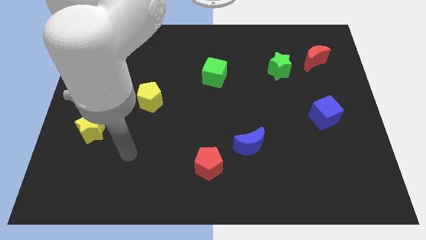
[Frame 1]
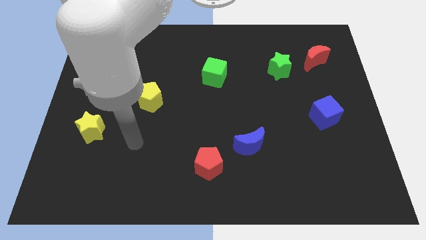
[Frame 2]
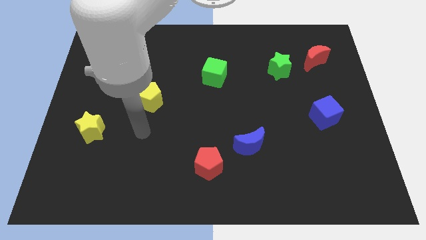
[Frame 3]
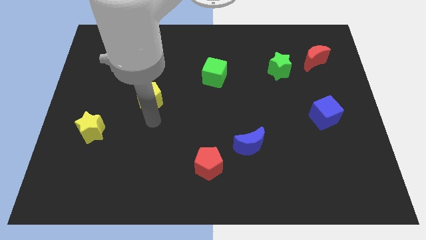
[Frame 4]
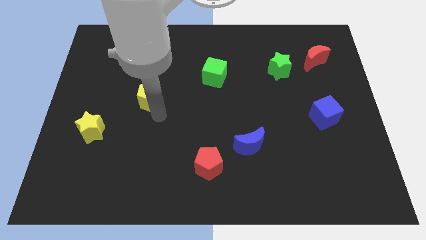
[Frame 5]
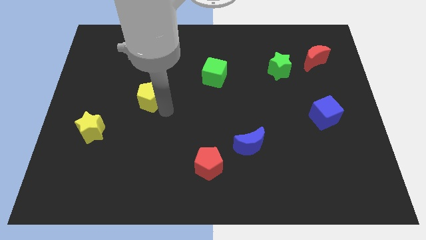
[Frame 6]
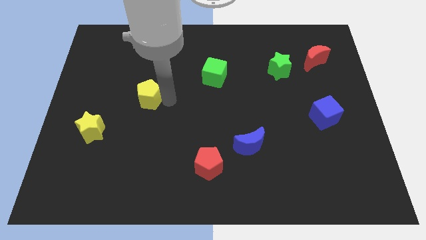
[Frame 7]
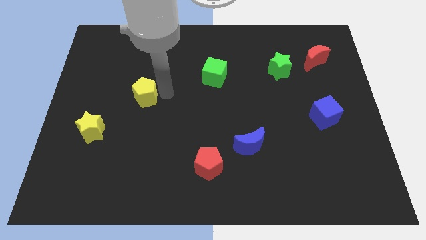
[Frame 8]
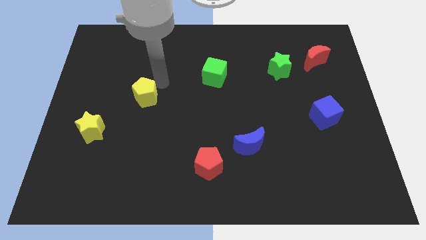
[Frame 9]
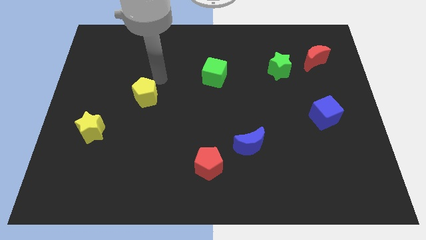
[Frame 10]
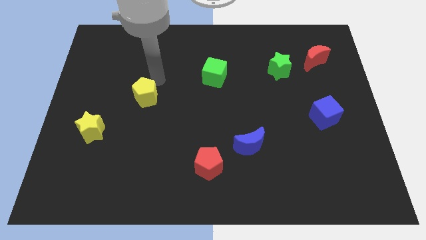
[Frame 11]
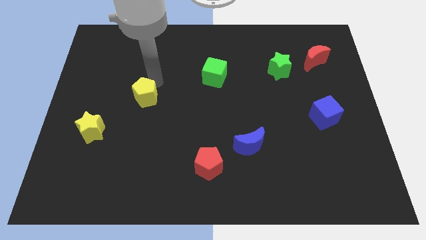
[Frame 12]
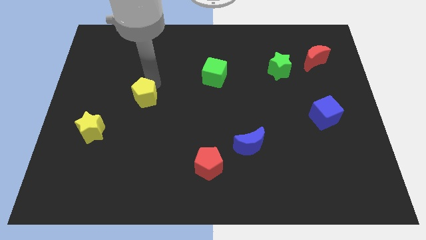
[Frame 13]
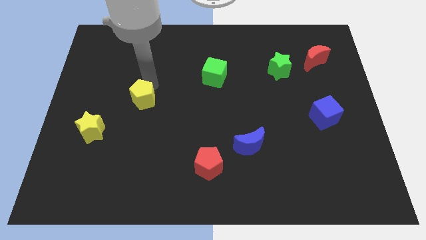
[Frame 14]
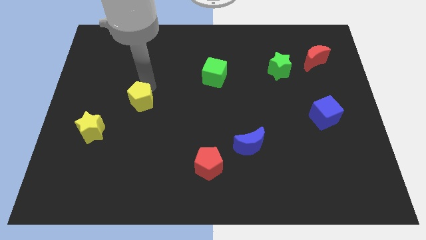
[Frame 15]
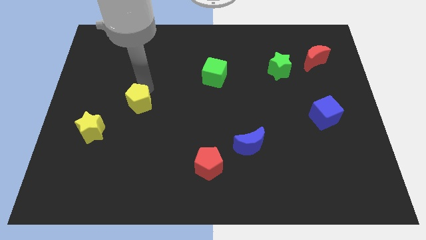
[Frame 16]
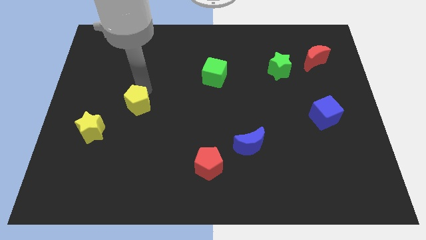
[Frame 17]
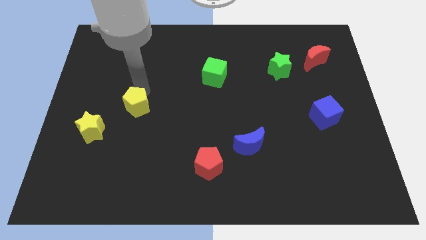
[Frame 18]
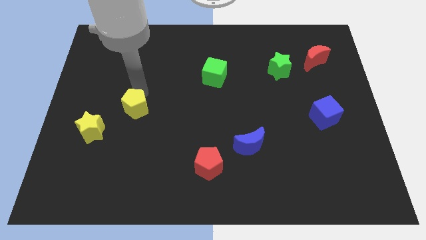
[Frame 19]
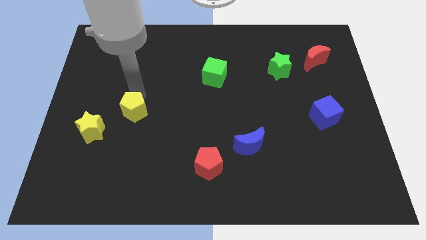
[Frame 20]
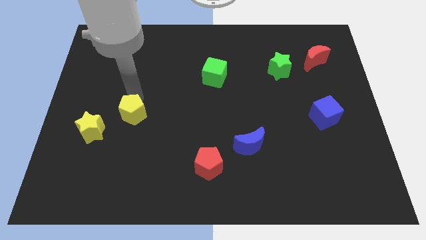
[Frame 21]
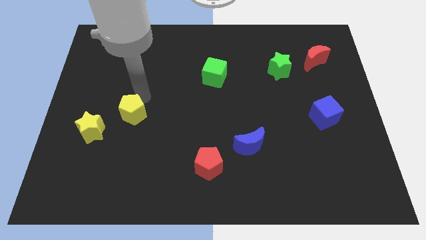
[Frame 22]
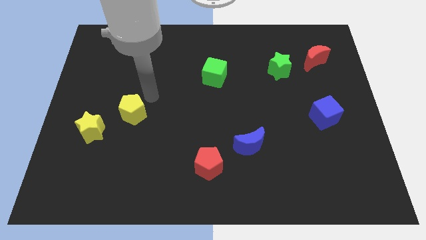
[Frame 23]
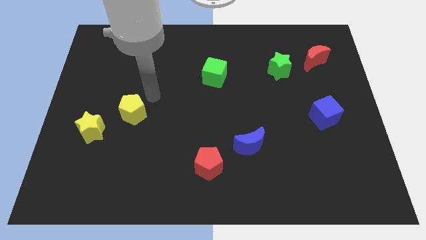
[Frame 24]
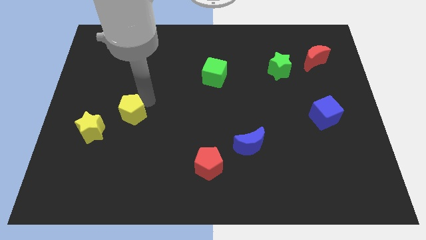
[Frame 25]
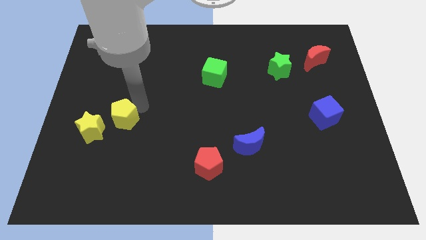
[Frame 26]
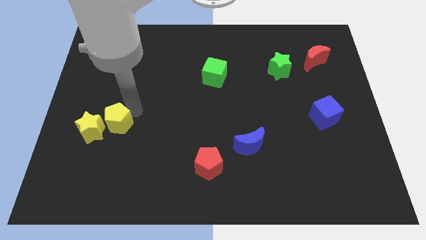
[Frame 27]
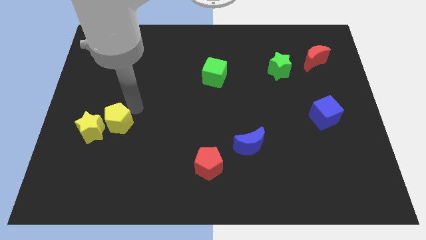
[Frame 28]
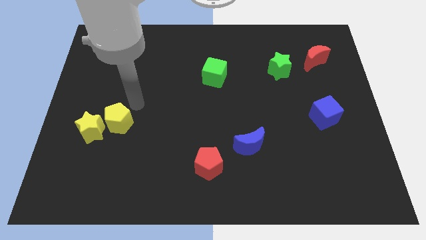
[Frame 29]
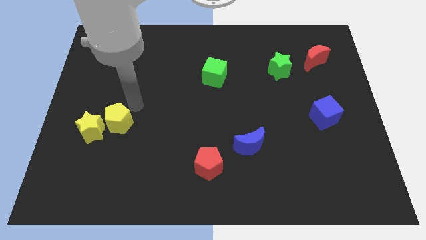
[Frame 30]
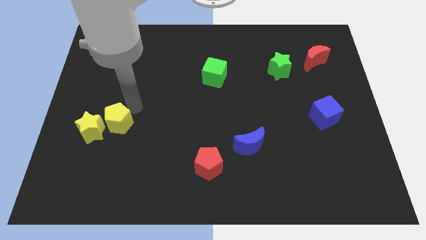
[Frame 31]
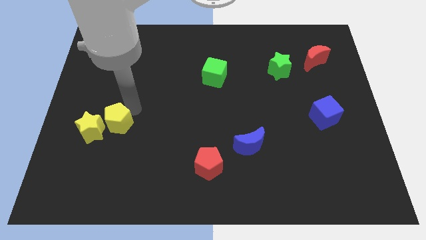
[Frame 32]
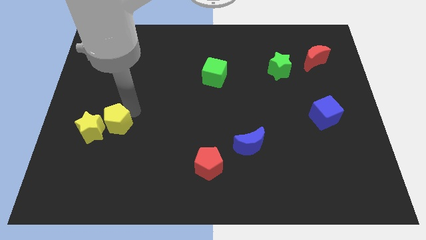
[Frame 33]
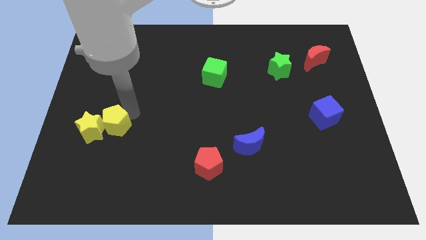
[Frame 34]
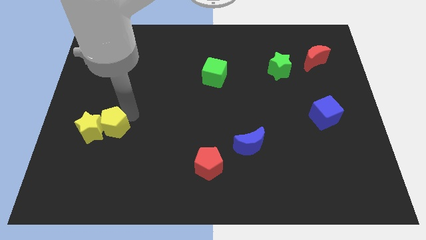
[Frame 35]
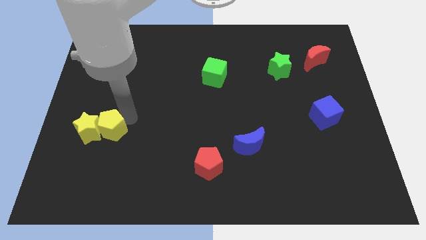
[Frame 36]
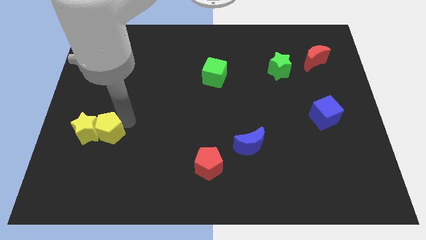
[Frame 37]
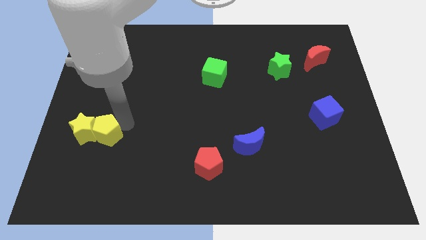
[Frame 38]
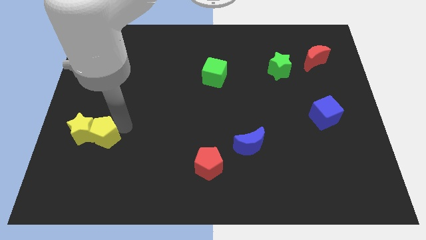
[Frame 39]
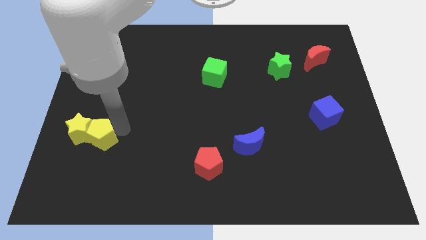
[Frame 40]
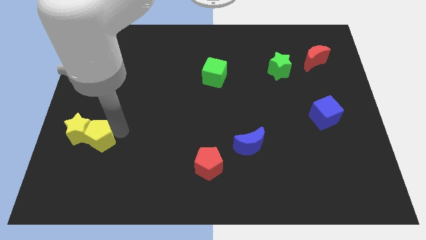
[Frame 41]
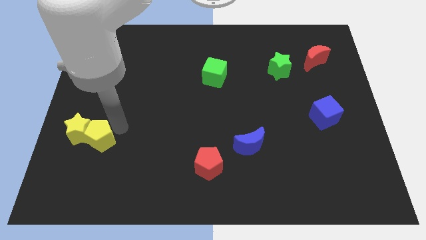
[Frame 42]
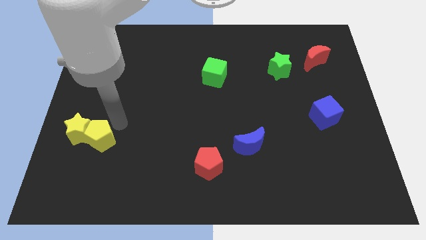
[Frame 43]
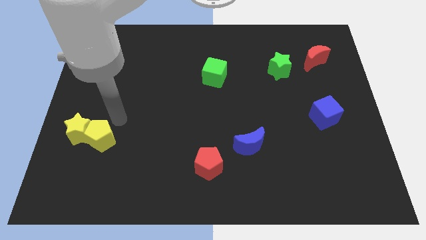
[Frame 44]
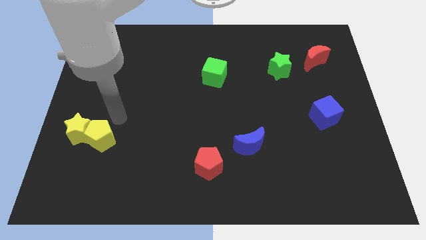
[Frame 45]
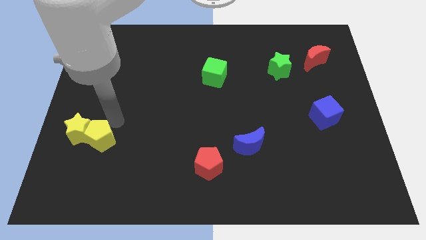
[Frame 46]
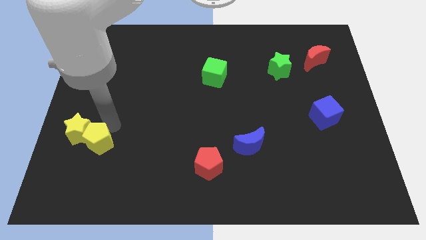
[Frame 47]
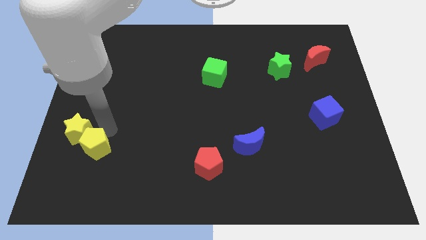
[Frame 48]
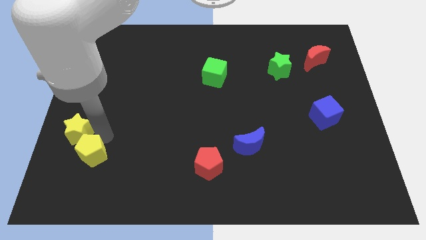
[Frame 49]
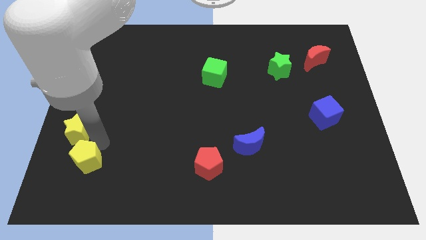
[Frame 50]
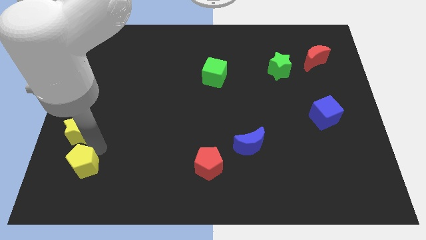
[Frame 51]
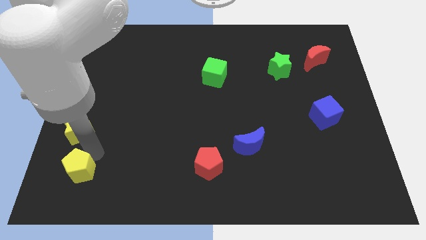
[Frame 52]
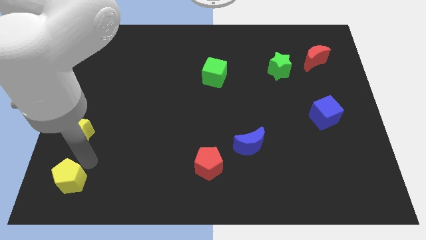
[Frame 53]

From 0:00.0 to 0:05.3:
push the yellow pentagon to the lower left corner
